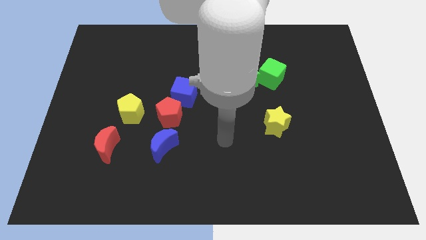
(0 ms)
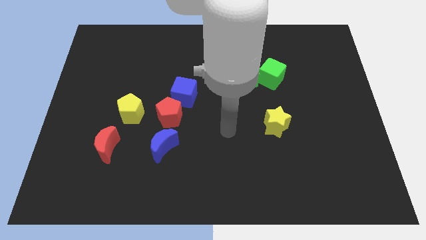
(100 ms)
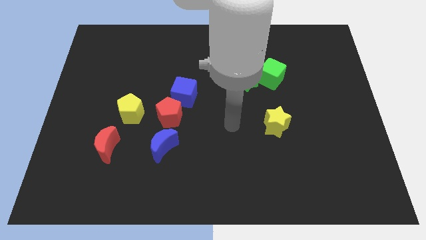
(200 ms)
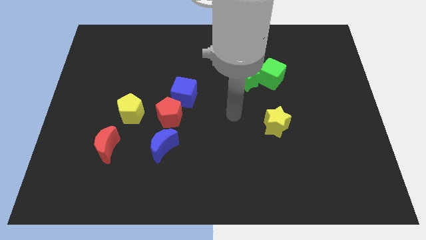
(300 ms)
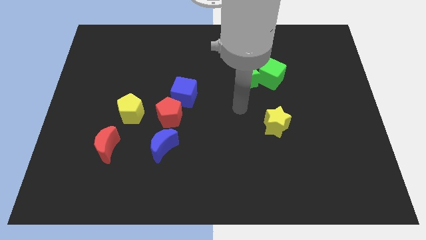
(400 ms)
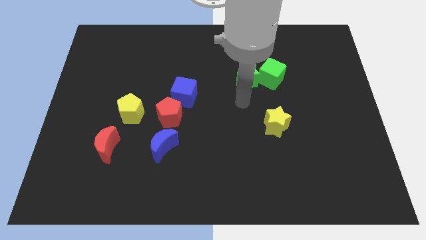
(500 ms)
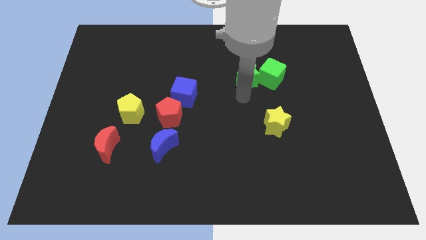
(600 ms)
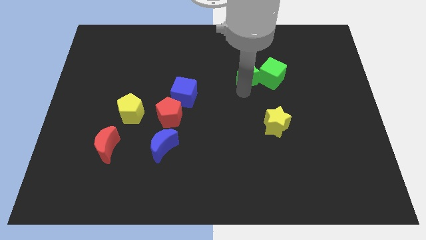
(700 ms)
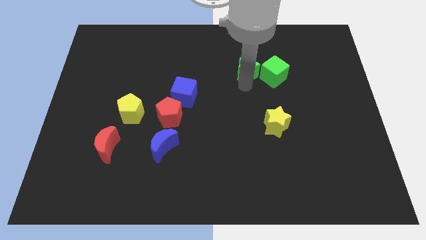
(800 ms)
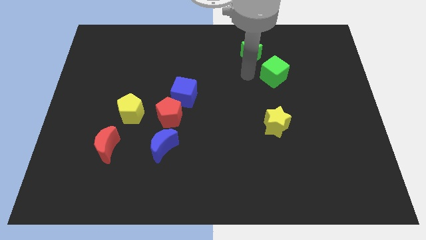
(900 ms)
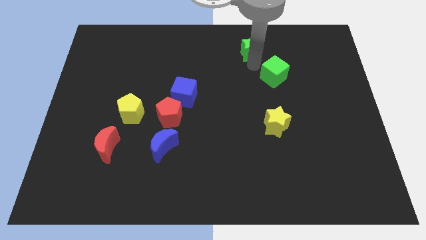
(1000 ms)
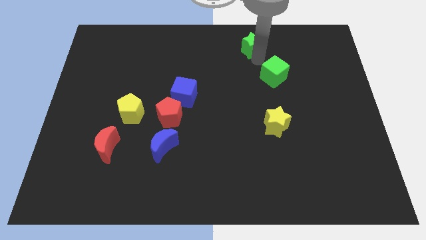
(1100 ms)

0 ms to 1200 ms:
pull the green cube apart from the green star

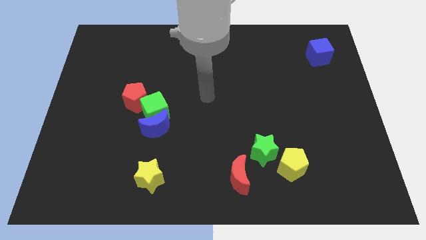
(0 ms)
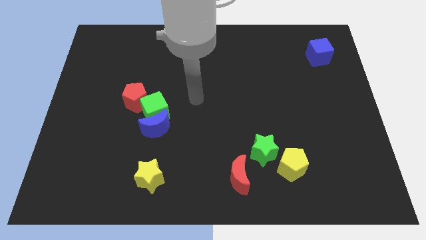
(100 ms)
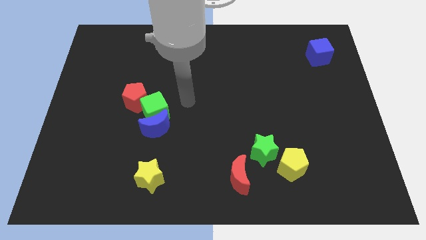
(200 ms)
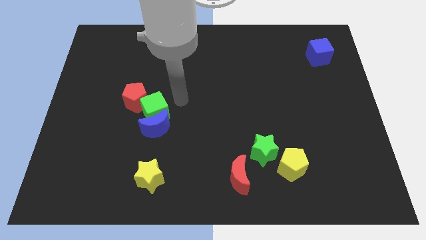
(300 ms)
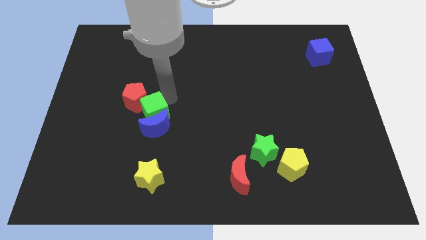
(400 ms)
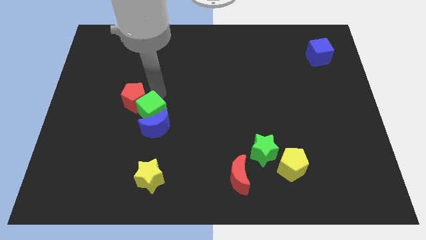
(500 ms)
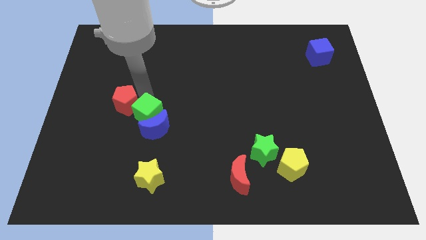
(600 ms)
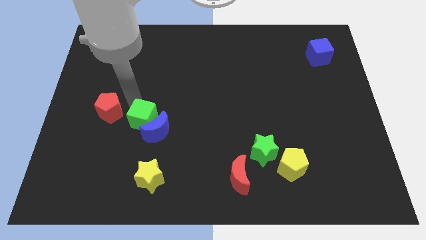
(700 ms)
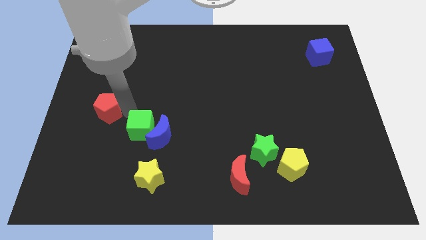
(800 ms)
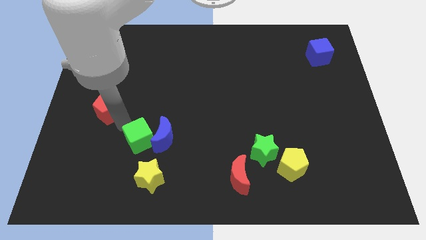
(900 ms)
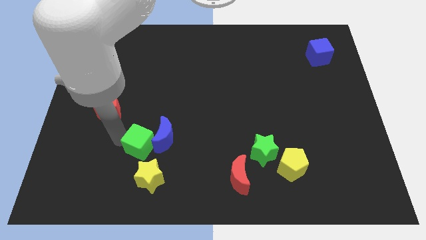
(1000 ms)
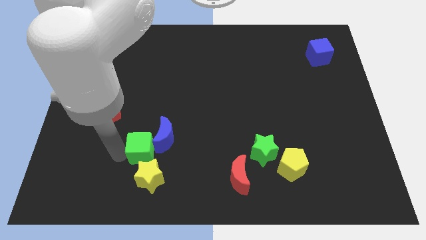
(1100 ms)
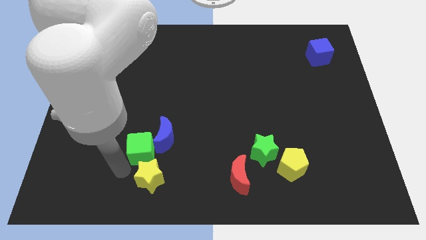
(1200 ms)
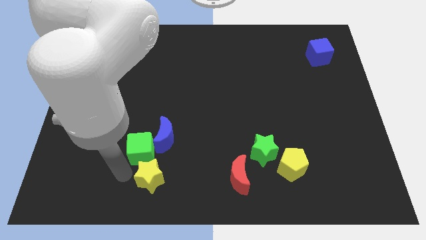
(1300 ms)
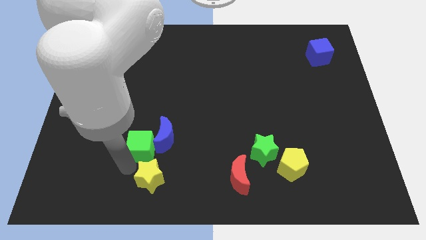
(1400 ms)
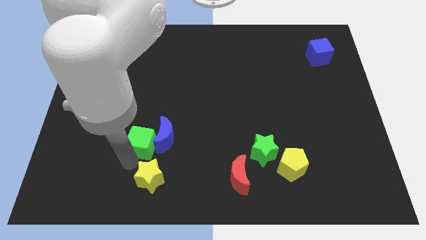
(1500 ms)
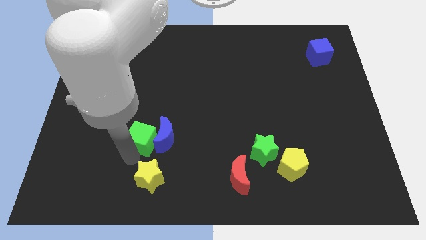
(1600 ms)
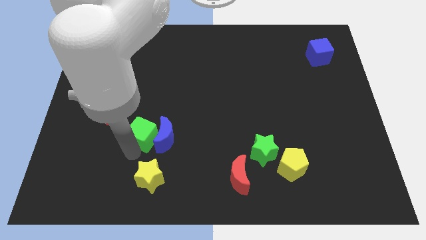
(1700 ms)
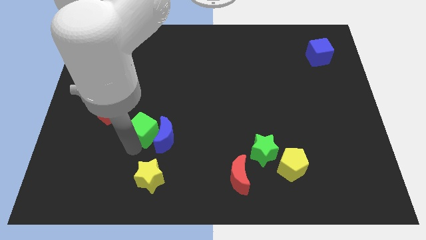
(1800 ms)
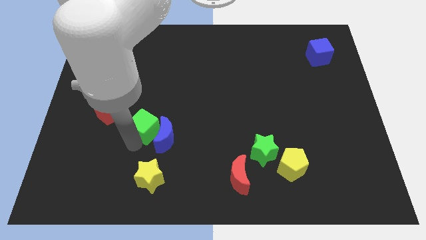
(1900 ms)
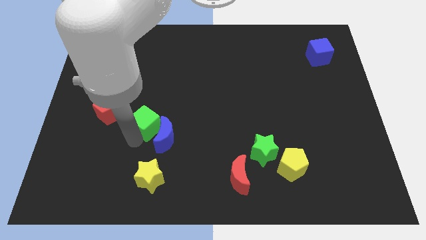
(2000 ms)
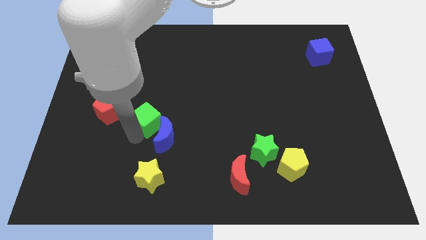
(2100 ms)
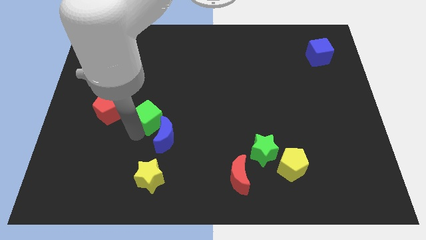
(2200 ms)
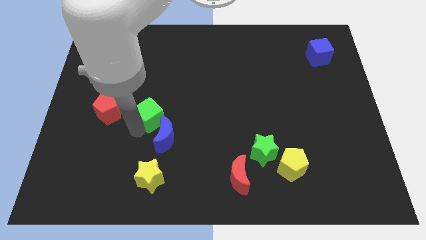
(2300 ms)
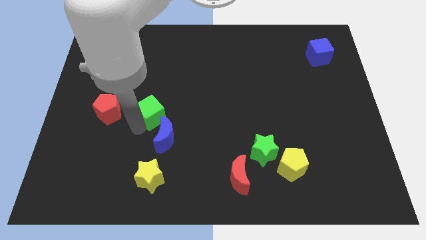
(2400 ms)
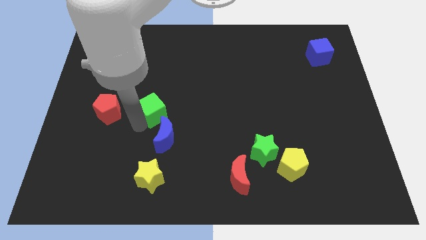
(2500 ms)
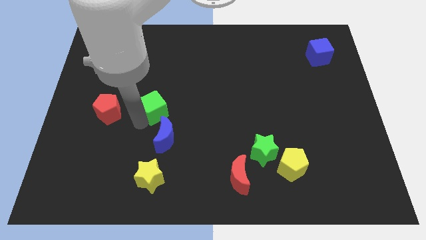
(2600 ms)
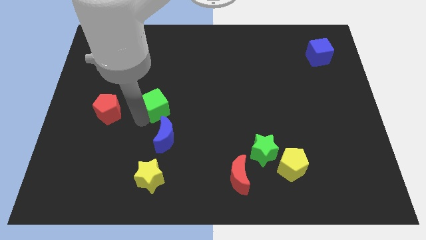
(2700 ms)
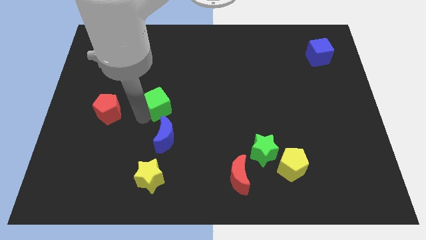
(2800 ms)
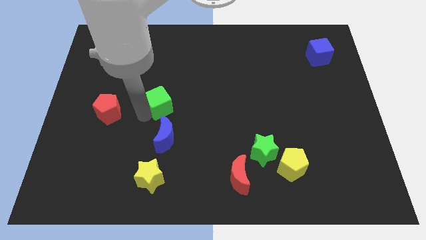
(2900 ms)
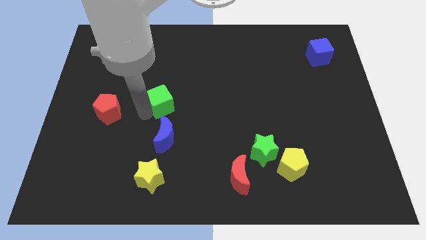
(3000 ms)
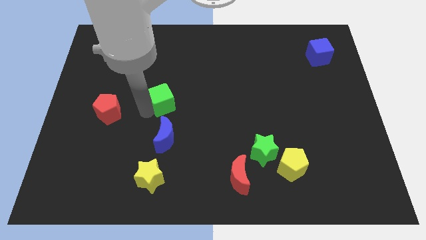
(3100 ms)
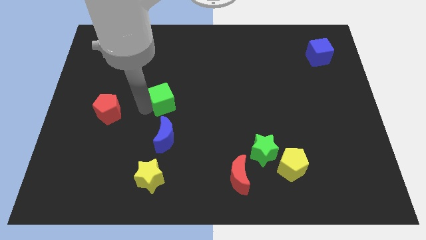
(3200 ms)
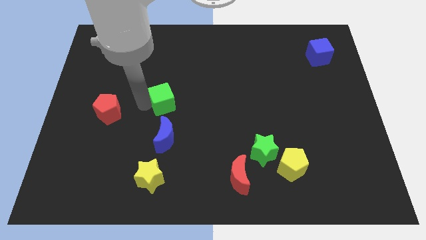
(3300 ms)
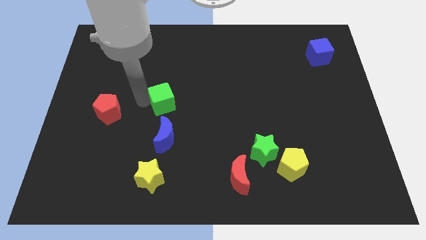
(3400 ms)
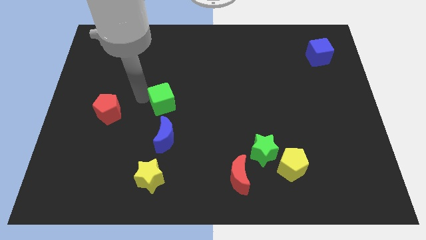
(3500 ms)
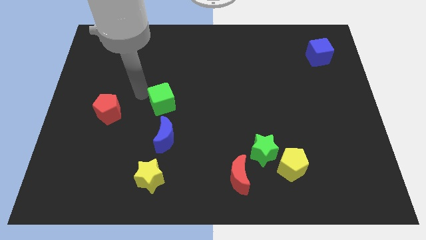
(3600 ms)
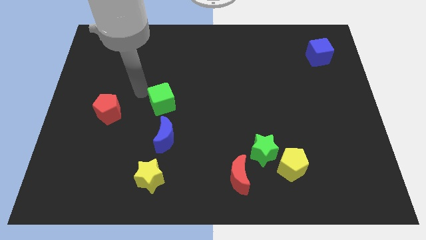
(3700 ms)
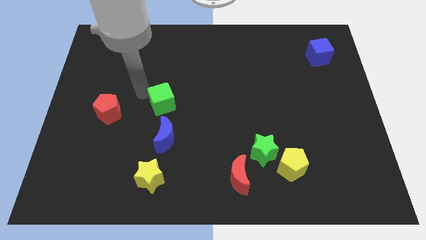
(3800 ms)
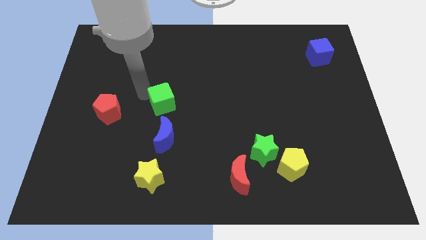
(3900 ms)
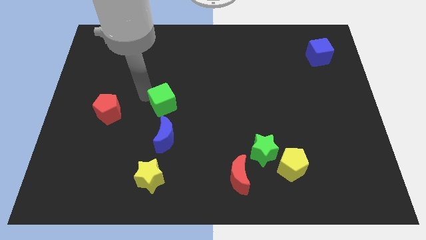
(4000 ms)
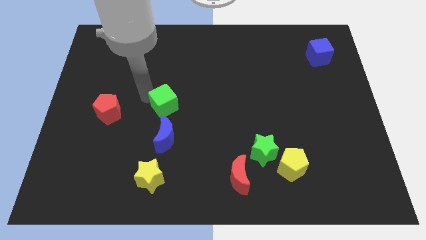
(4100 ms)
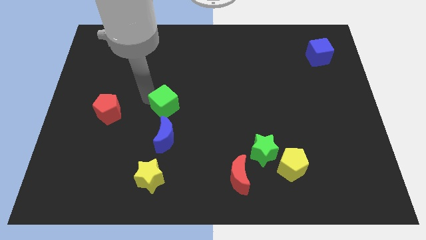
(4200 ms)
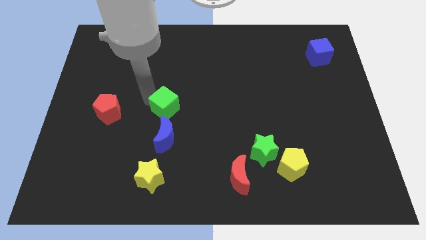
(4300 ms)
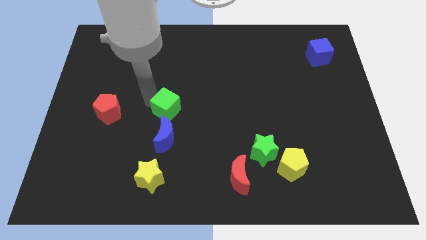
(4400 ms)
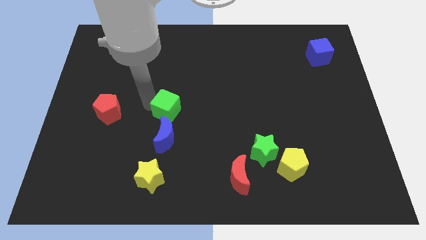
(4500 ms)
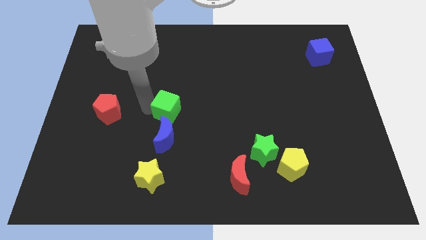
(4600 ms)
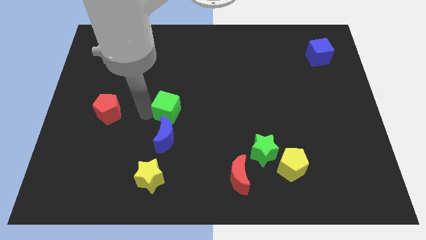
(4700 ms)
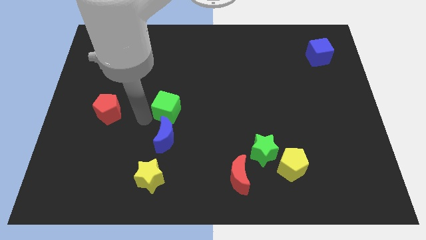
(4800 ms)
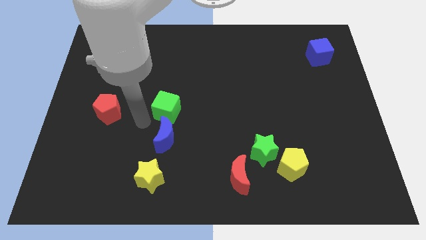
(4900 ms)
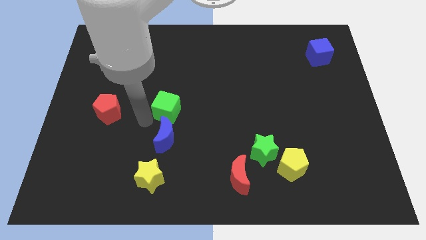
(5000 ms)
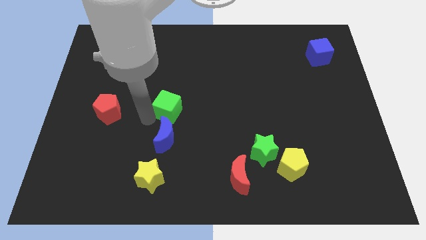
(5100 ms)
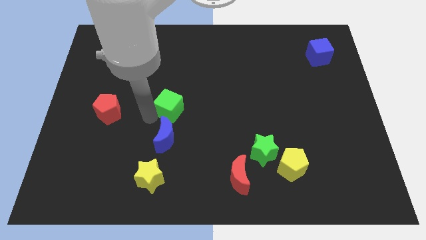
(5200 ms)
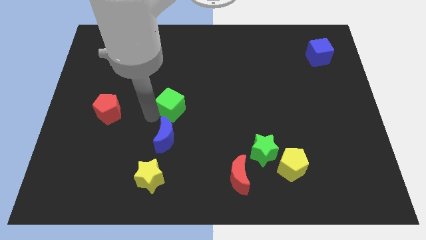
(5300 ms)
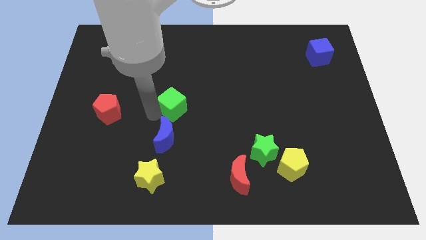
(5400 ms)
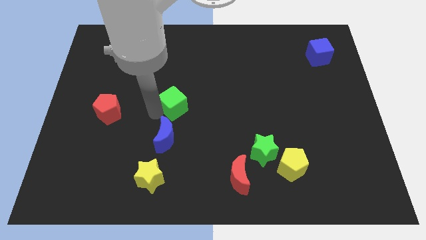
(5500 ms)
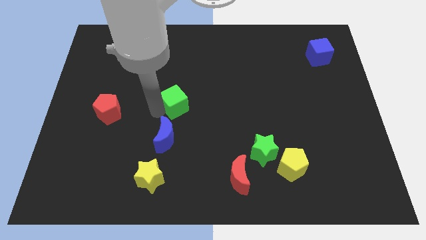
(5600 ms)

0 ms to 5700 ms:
pull the green cube apart from the blue moon and red pentagon

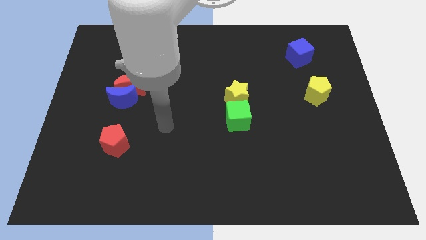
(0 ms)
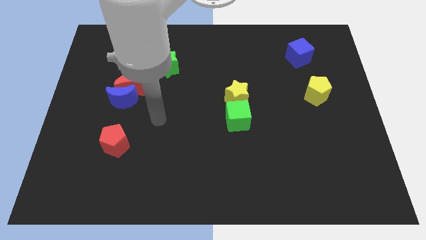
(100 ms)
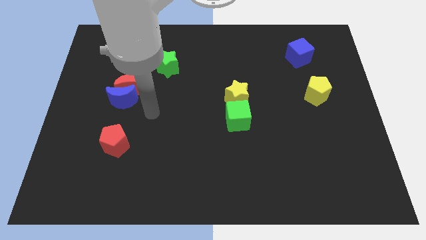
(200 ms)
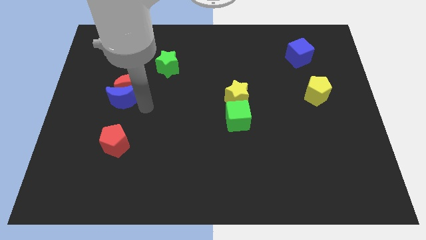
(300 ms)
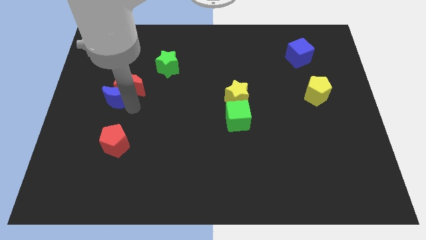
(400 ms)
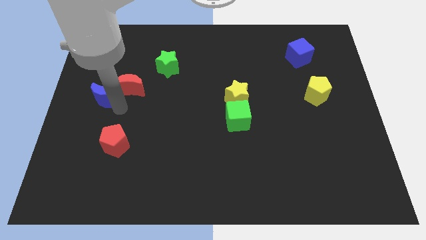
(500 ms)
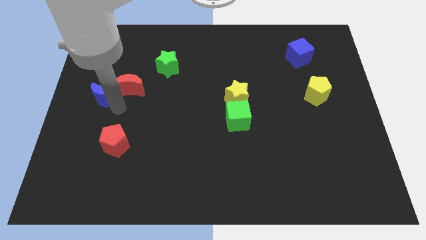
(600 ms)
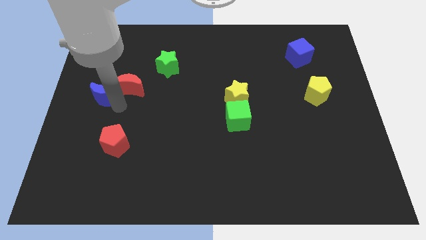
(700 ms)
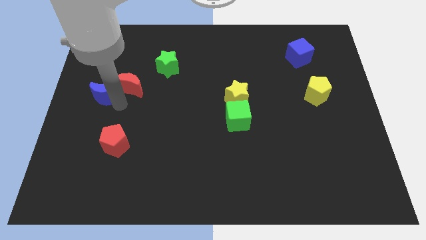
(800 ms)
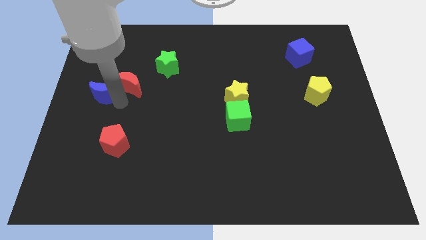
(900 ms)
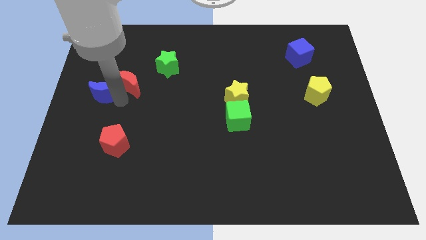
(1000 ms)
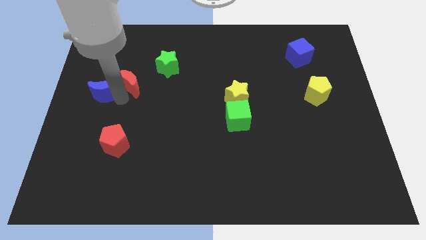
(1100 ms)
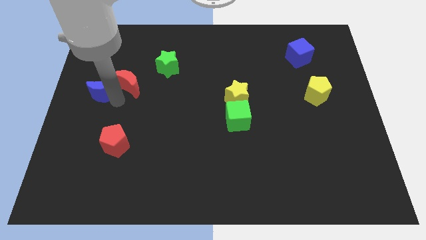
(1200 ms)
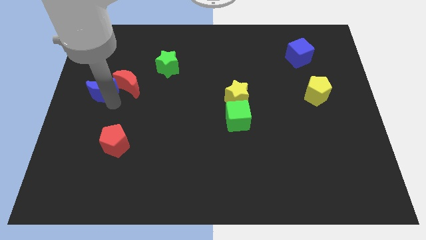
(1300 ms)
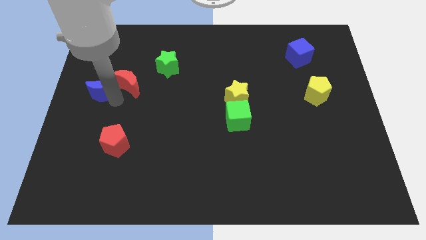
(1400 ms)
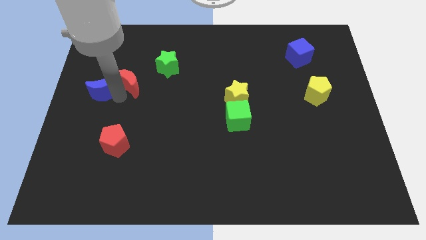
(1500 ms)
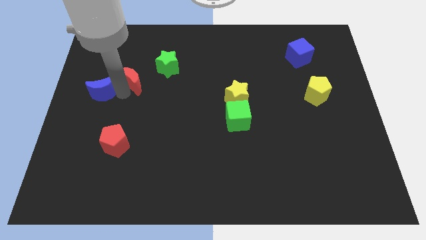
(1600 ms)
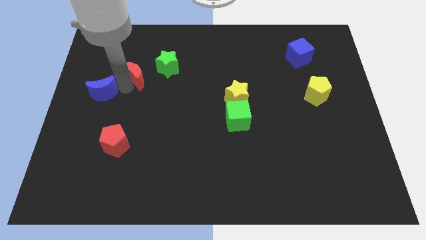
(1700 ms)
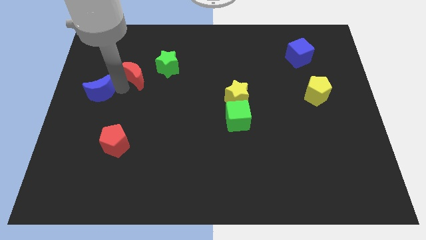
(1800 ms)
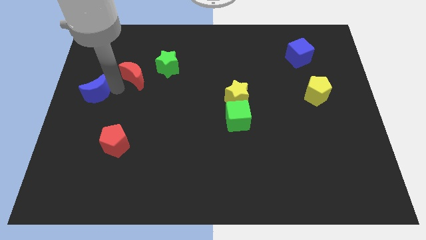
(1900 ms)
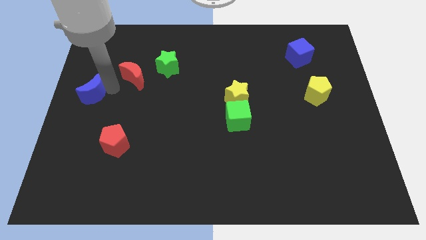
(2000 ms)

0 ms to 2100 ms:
separate the red moon from the blue moon

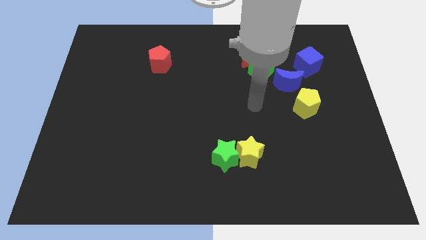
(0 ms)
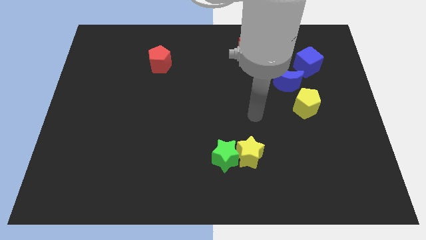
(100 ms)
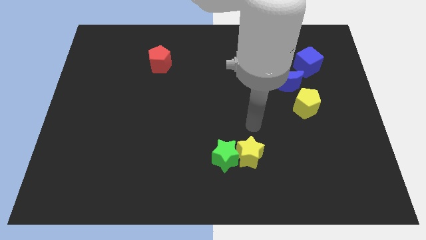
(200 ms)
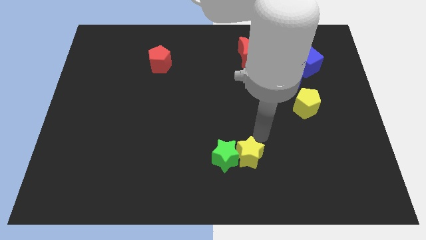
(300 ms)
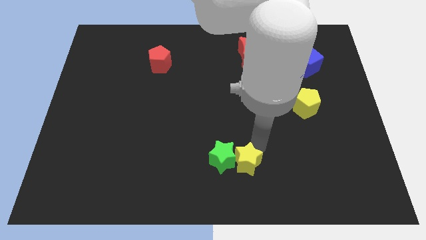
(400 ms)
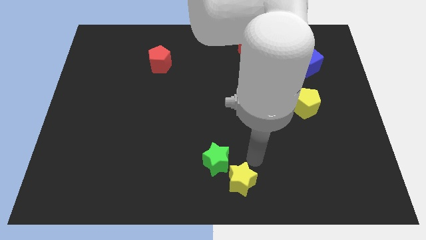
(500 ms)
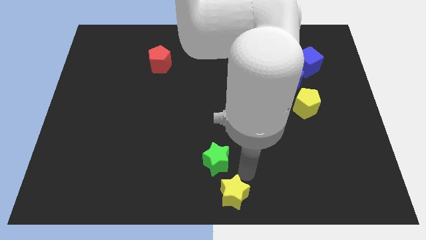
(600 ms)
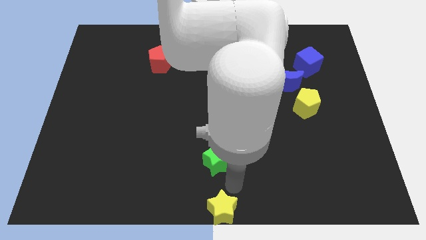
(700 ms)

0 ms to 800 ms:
pull the green star apart from the yellow star
